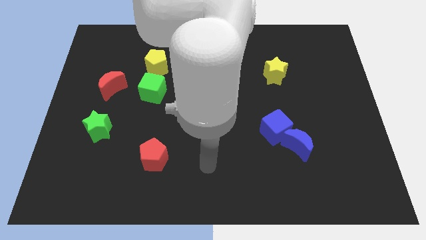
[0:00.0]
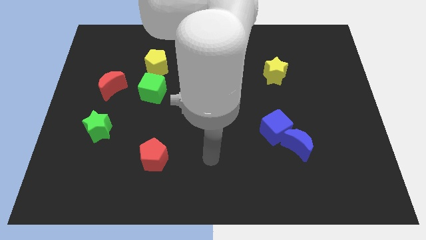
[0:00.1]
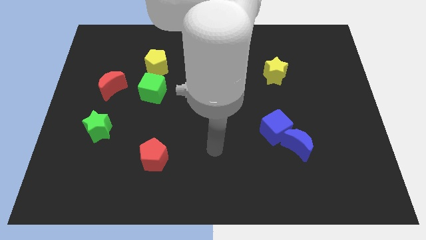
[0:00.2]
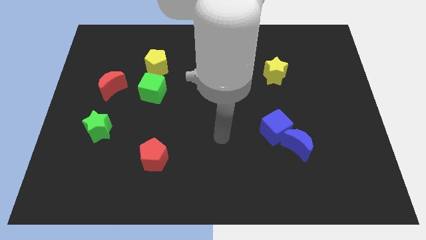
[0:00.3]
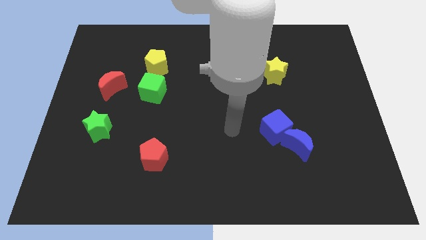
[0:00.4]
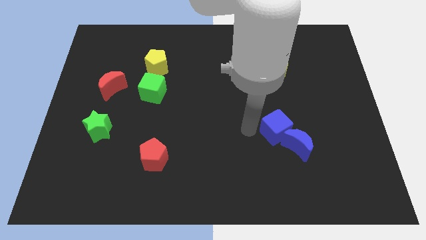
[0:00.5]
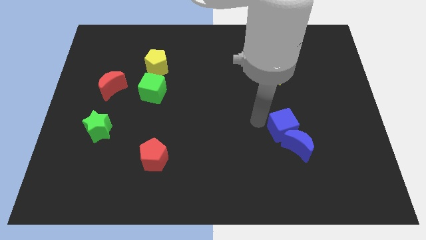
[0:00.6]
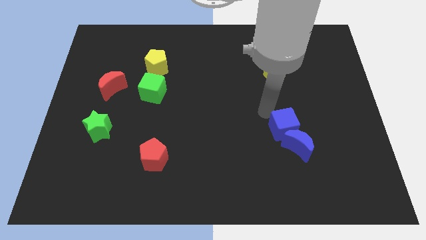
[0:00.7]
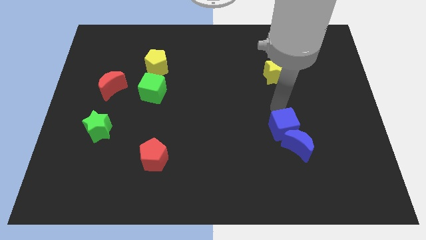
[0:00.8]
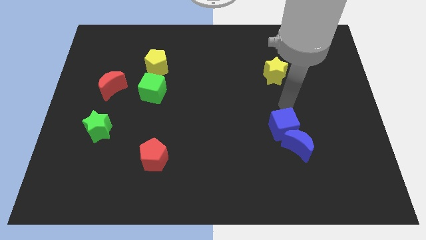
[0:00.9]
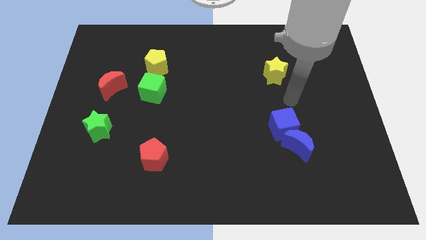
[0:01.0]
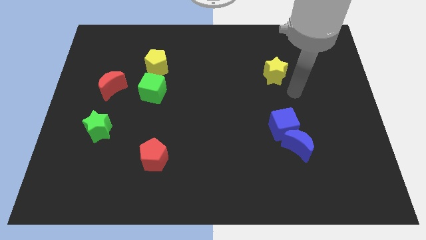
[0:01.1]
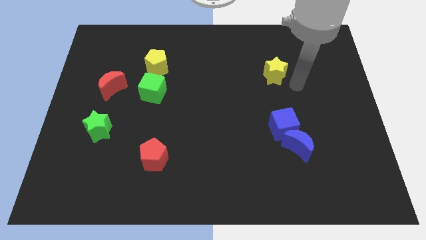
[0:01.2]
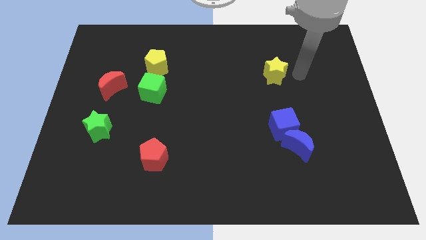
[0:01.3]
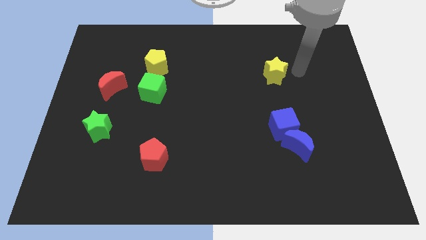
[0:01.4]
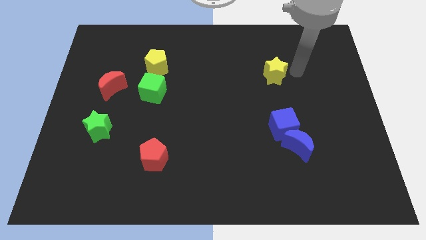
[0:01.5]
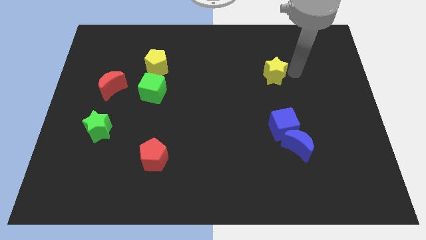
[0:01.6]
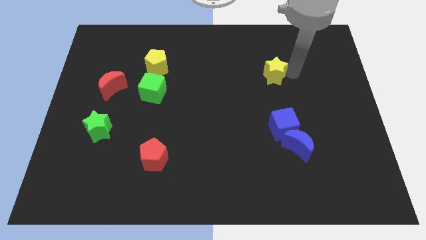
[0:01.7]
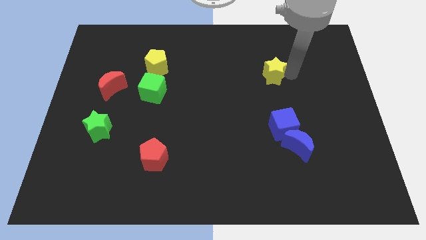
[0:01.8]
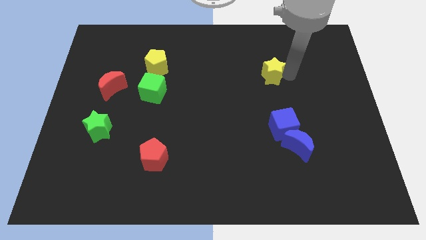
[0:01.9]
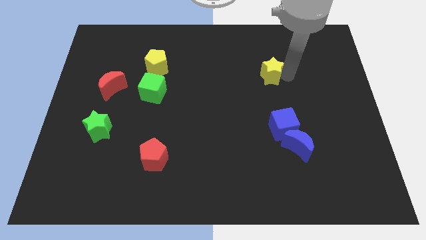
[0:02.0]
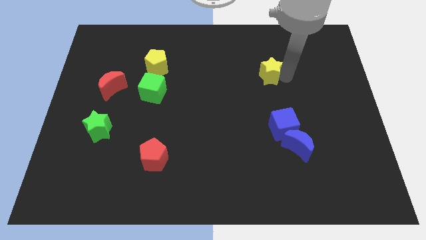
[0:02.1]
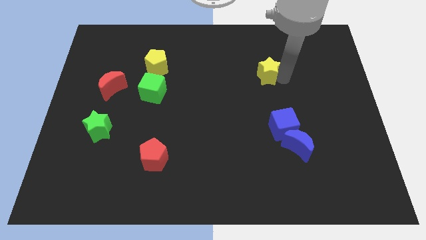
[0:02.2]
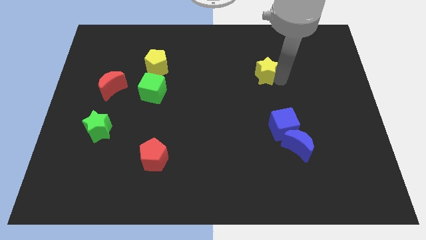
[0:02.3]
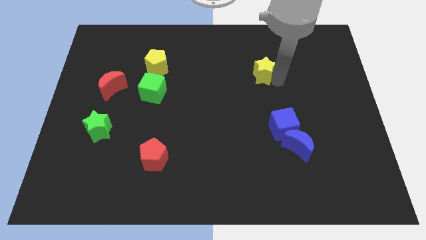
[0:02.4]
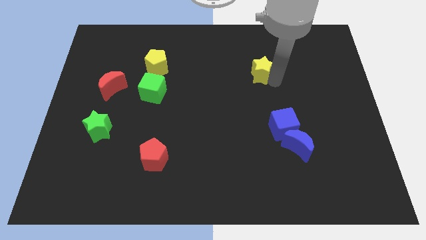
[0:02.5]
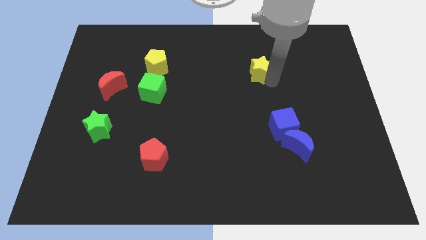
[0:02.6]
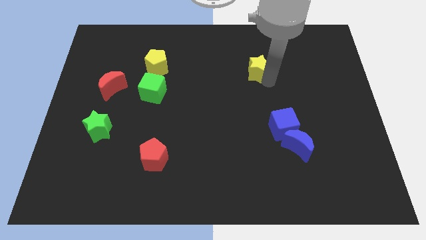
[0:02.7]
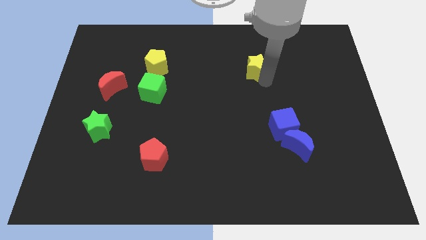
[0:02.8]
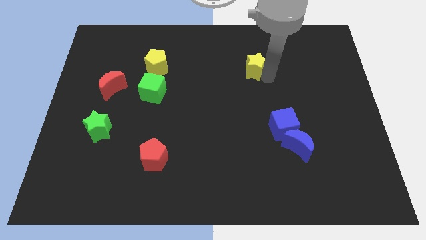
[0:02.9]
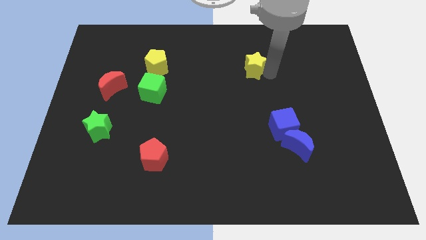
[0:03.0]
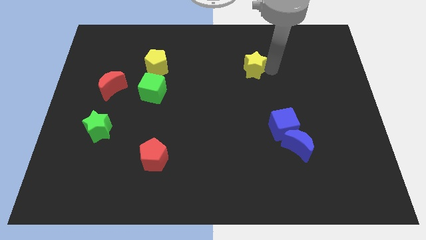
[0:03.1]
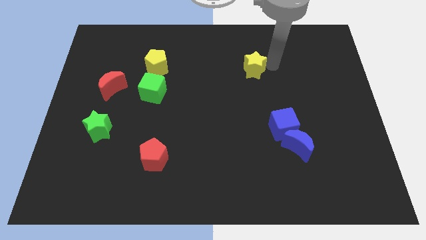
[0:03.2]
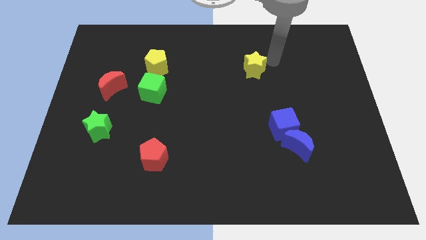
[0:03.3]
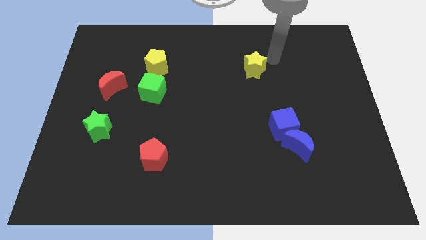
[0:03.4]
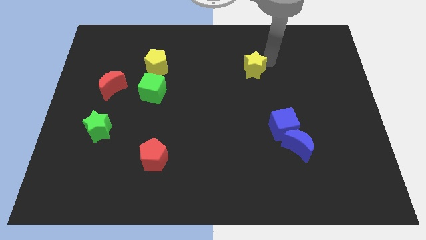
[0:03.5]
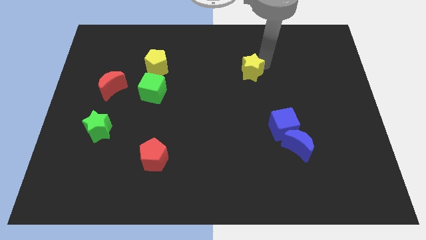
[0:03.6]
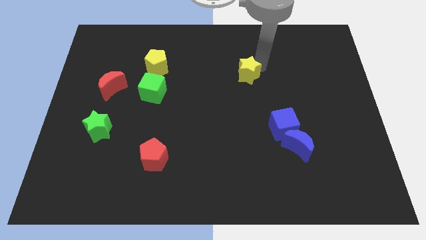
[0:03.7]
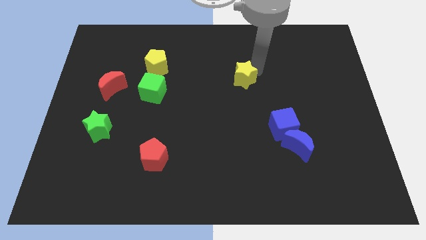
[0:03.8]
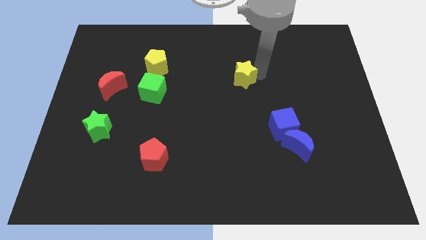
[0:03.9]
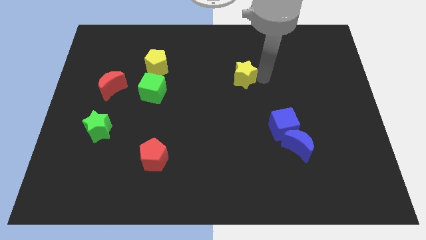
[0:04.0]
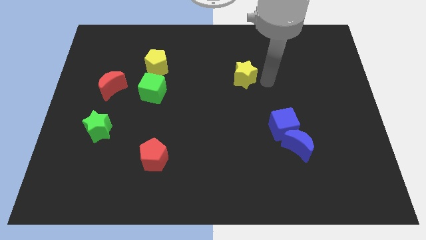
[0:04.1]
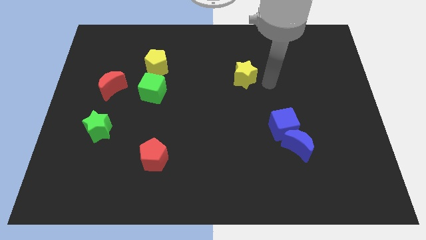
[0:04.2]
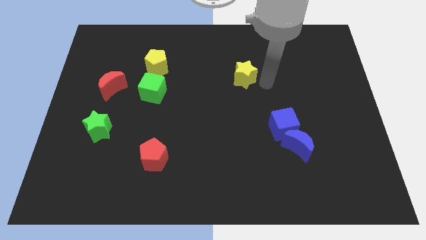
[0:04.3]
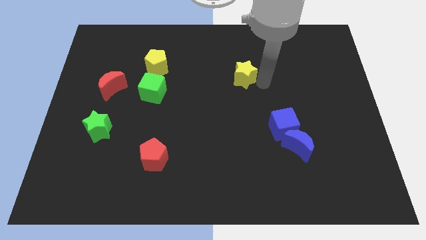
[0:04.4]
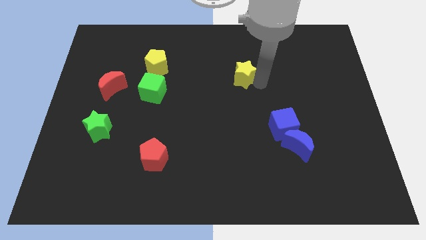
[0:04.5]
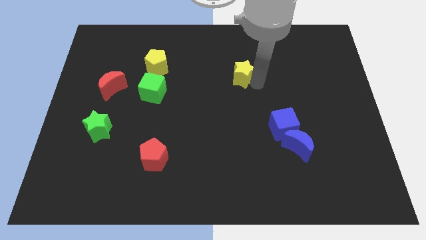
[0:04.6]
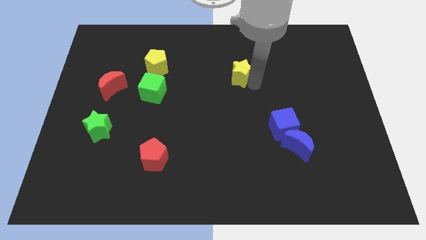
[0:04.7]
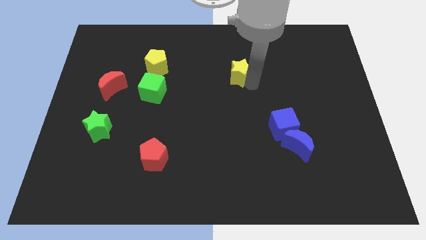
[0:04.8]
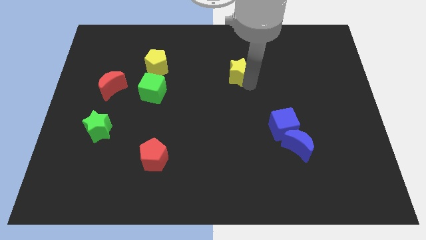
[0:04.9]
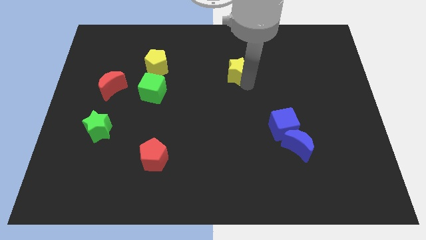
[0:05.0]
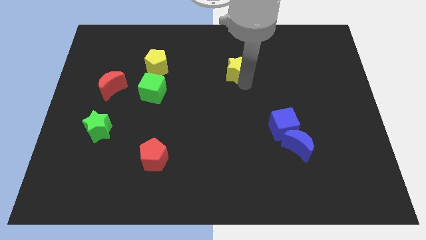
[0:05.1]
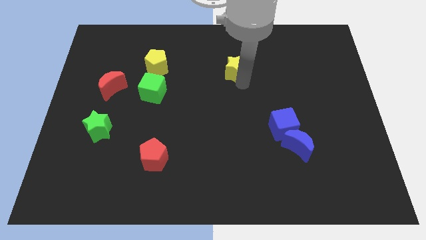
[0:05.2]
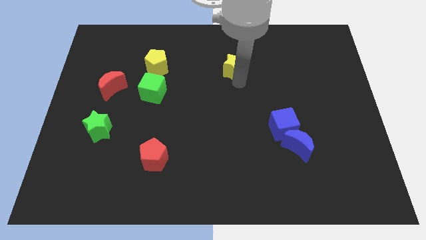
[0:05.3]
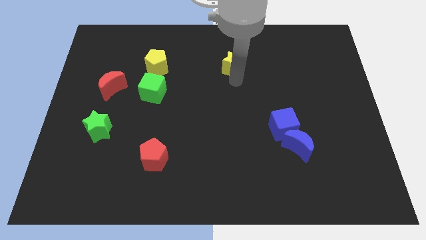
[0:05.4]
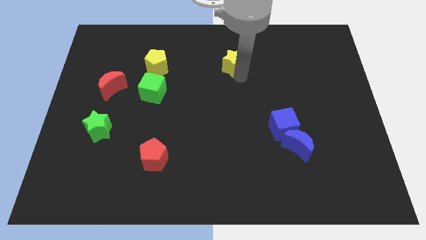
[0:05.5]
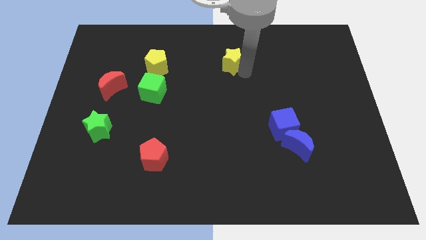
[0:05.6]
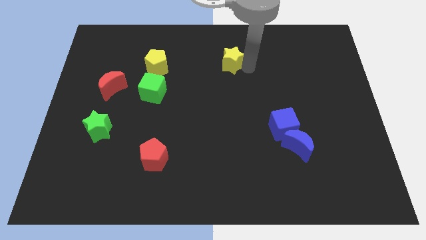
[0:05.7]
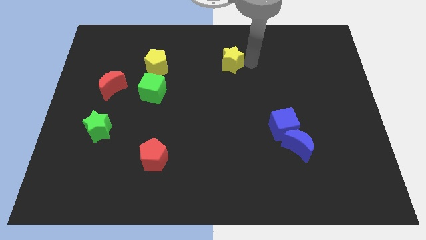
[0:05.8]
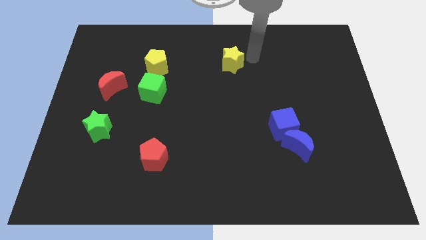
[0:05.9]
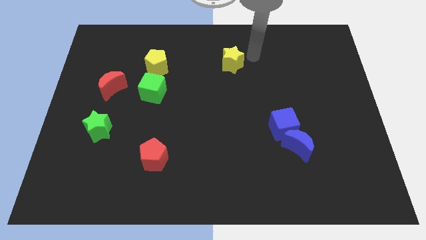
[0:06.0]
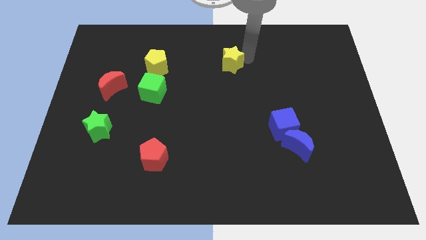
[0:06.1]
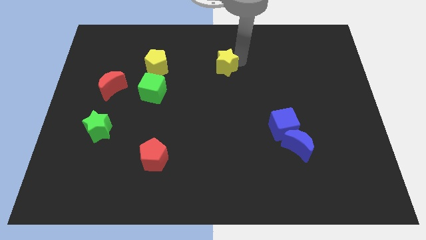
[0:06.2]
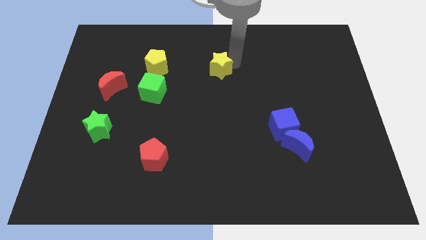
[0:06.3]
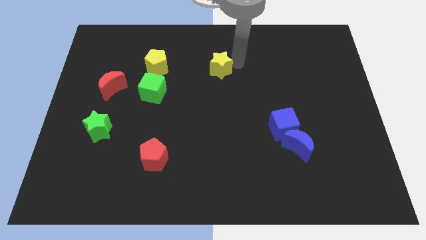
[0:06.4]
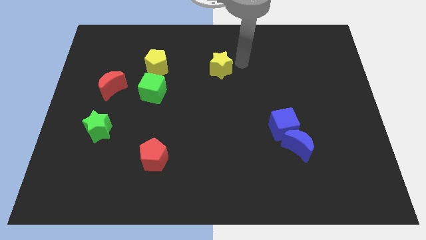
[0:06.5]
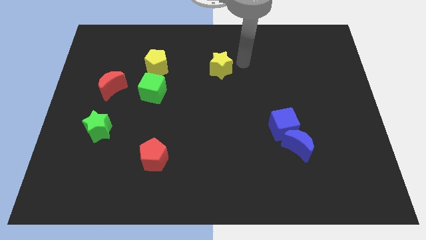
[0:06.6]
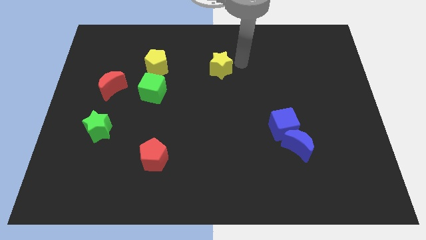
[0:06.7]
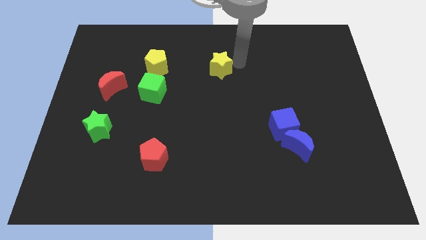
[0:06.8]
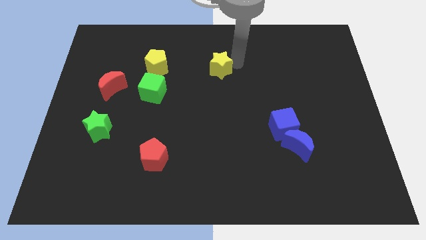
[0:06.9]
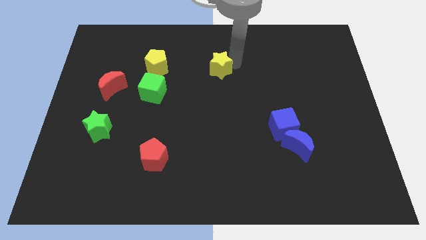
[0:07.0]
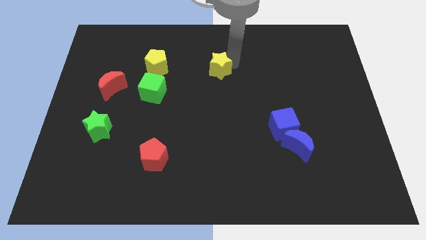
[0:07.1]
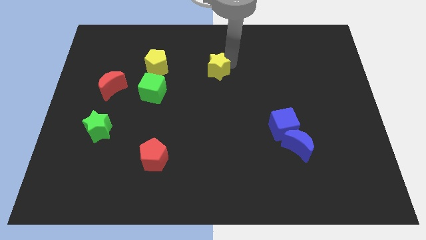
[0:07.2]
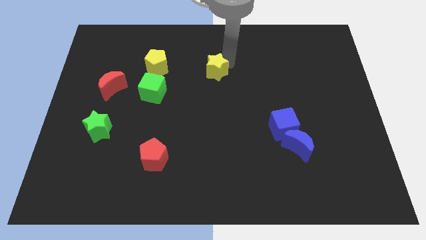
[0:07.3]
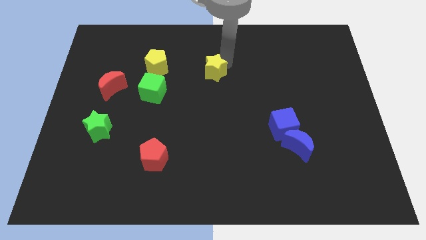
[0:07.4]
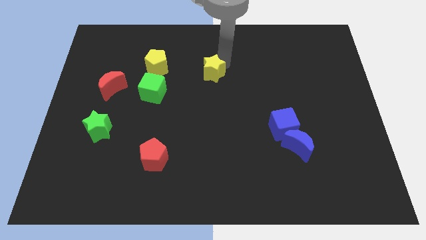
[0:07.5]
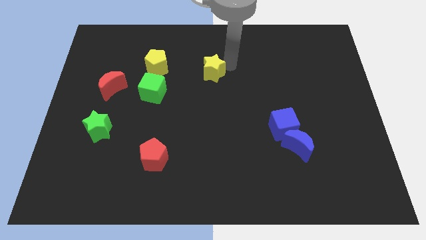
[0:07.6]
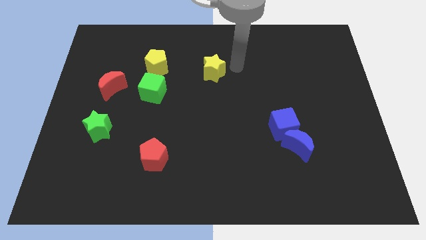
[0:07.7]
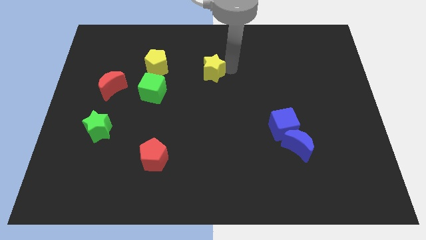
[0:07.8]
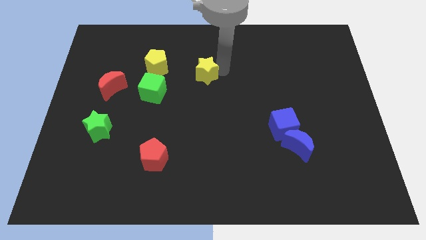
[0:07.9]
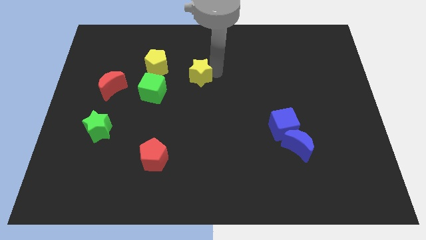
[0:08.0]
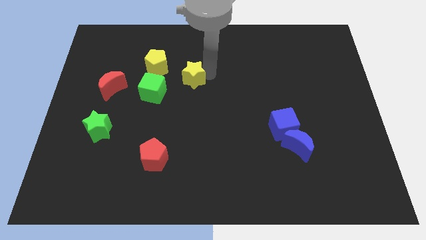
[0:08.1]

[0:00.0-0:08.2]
slide the yellow star left
